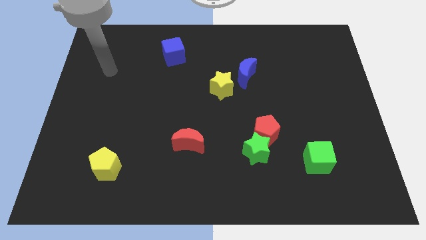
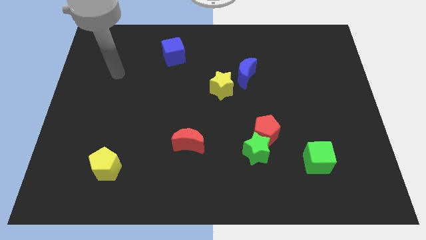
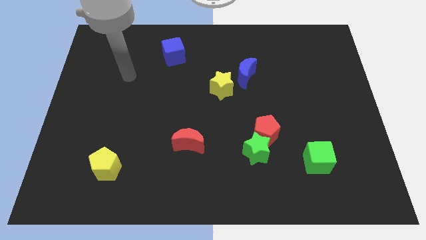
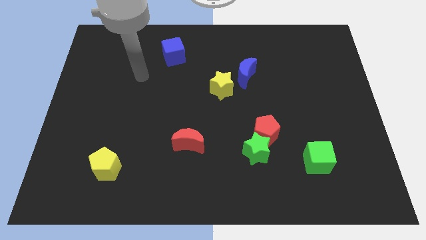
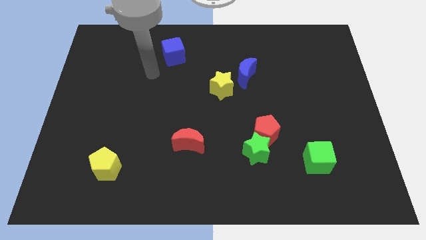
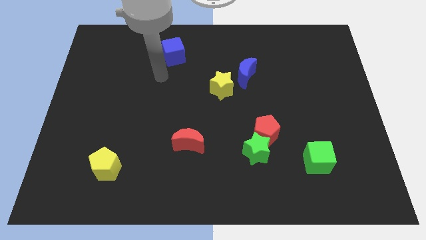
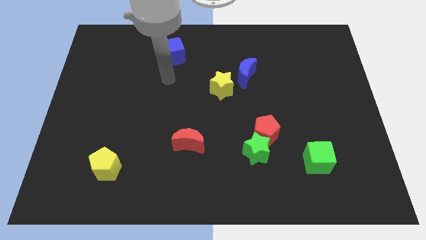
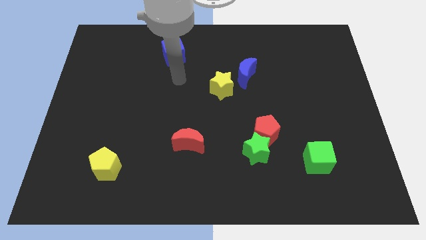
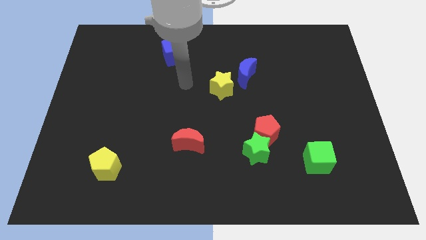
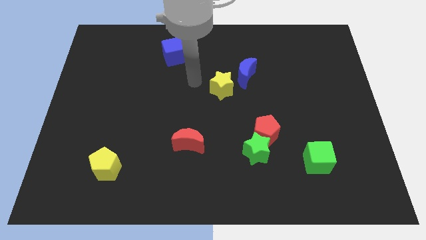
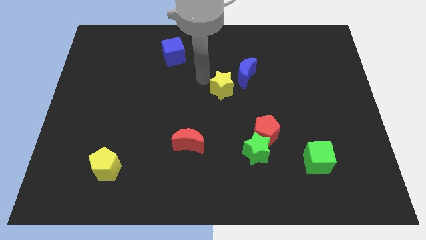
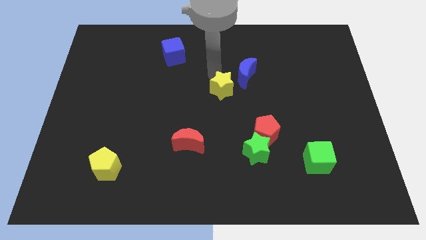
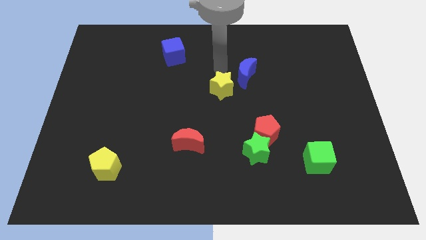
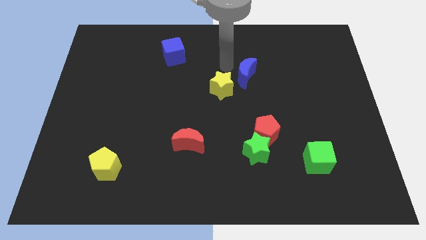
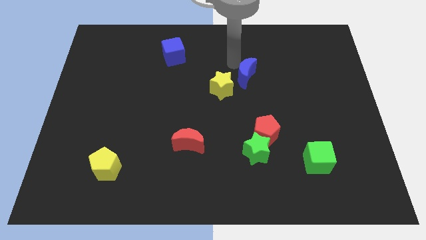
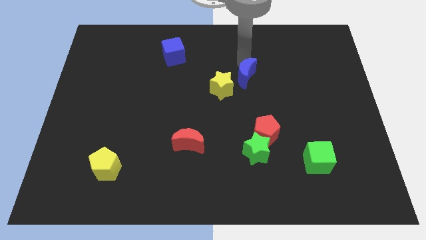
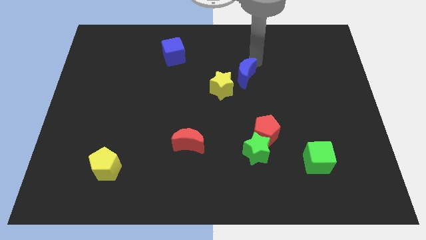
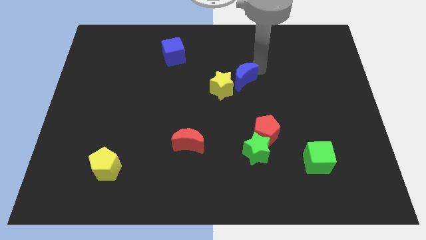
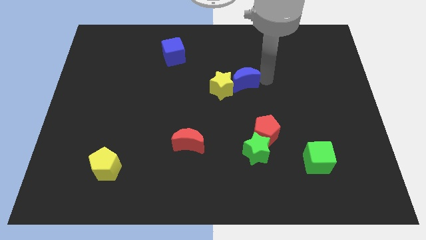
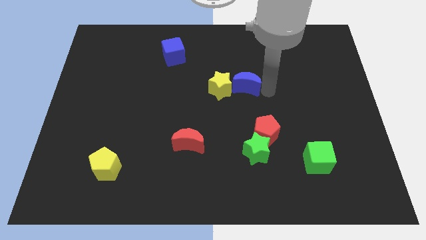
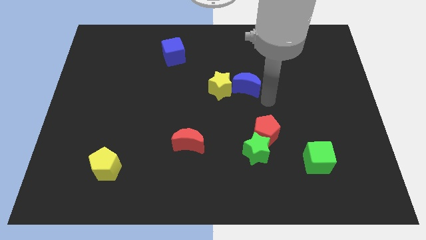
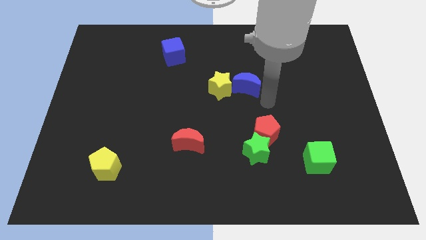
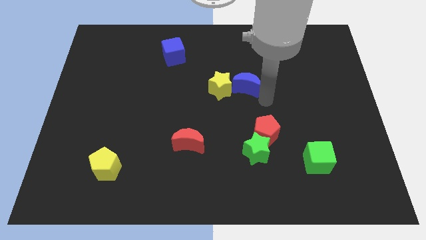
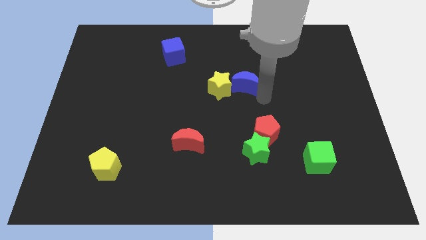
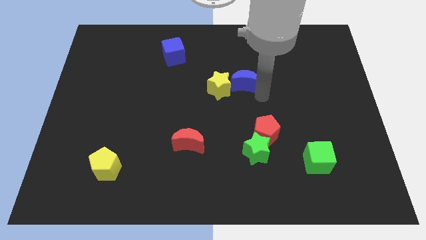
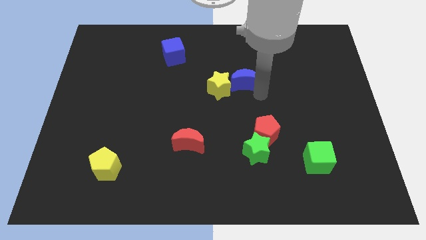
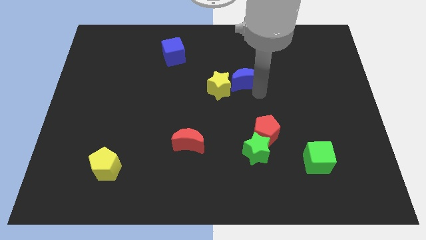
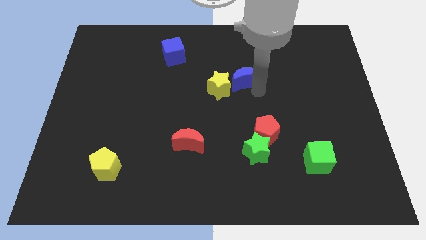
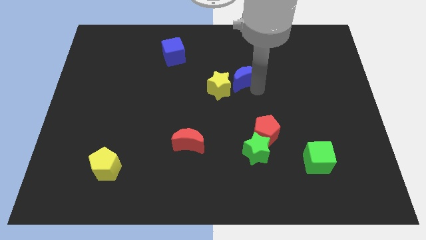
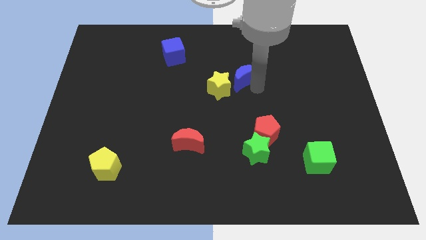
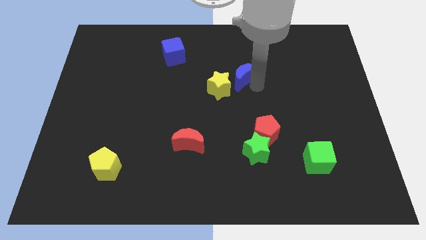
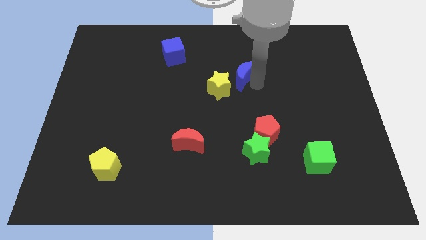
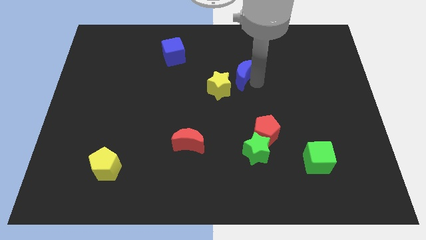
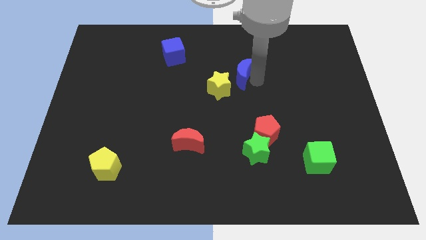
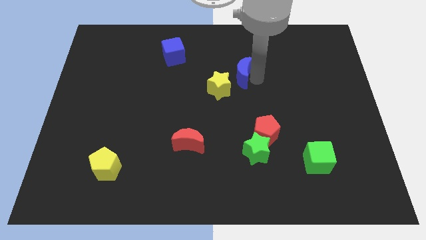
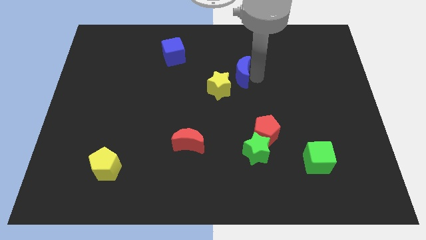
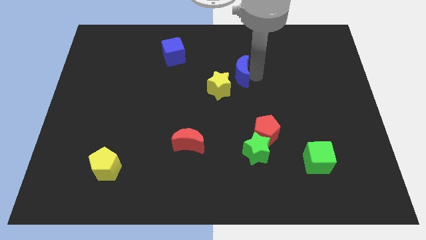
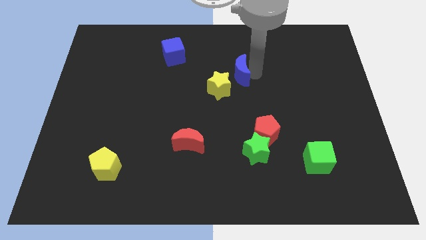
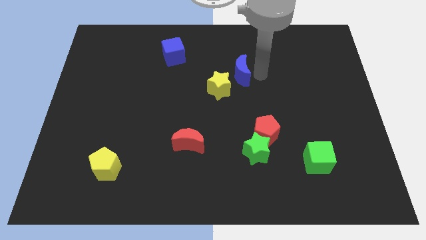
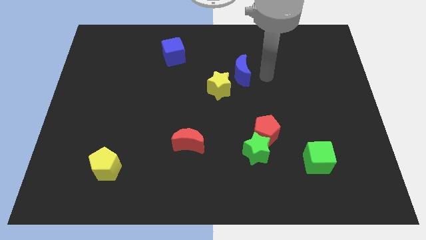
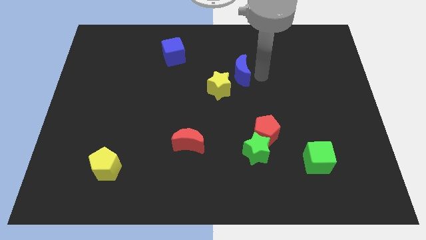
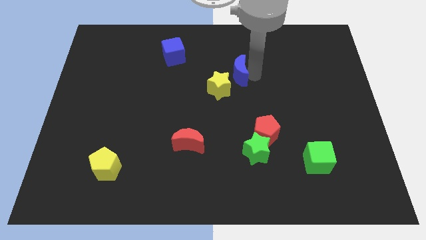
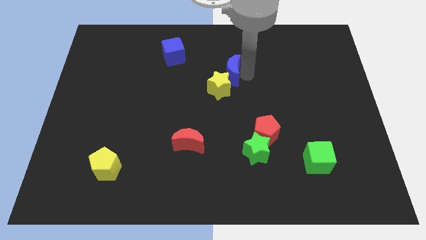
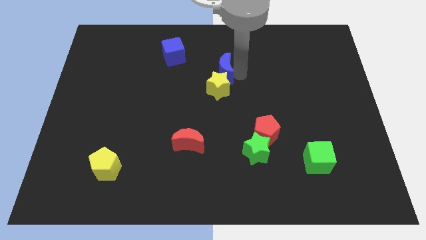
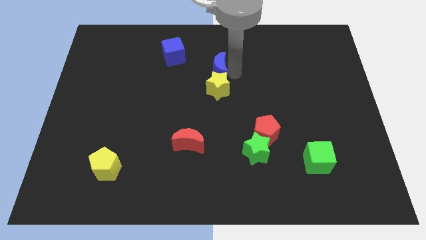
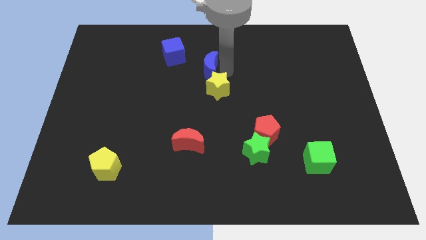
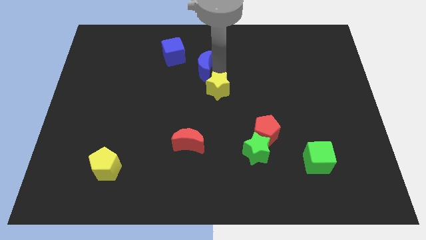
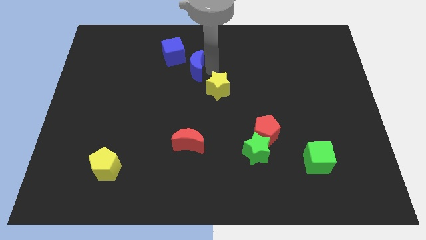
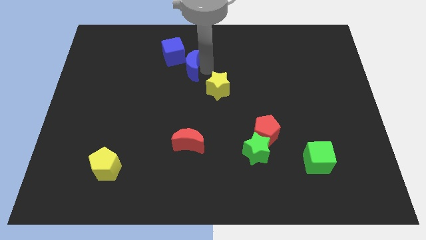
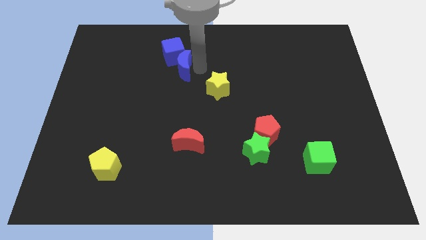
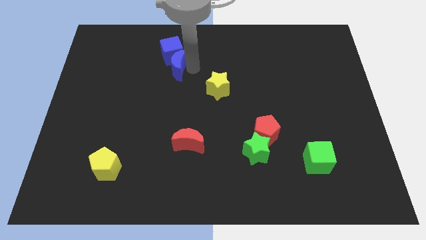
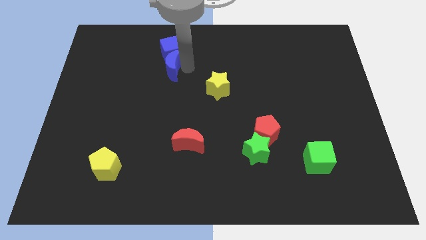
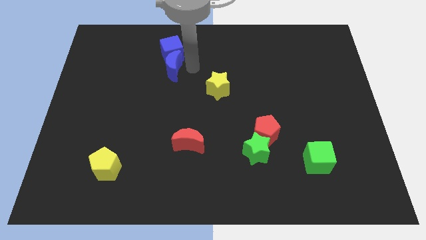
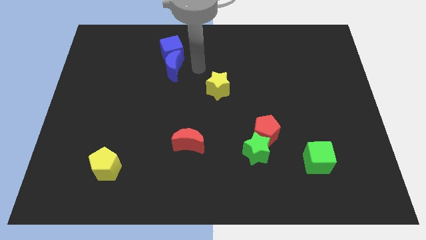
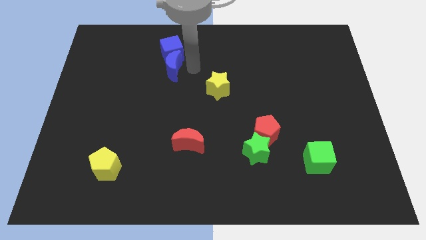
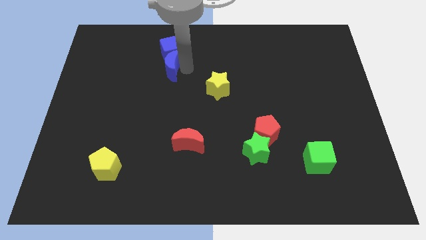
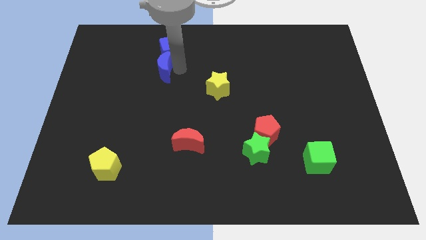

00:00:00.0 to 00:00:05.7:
move the blue moon to the left

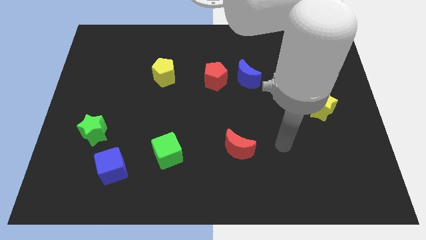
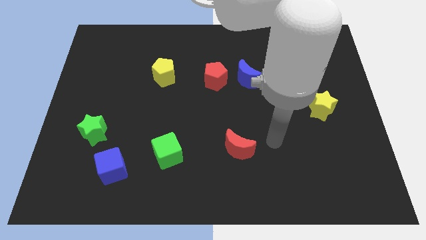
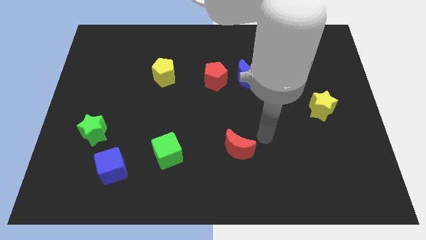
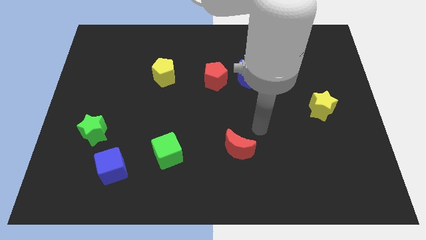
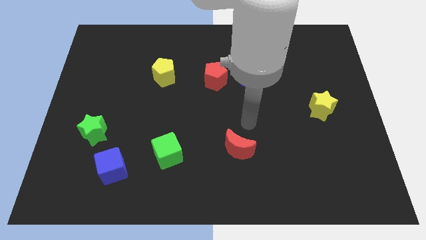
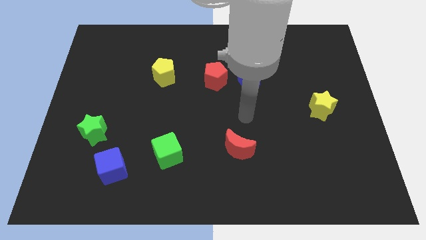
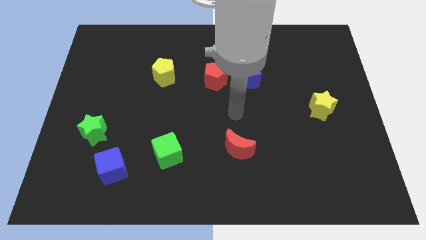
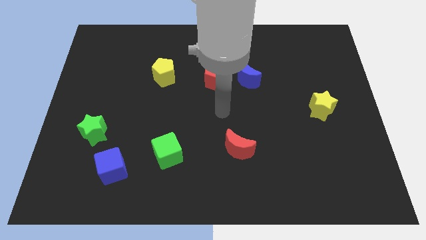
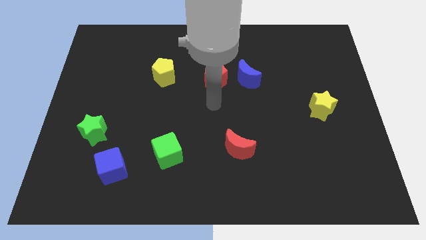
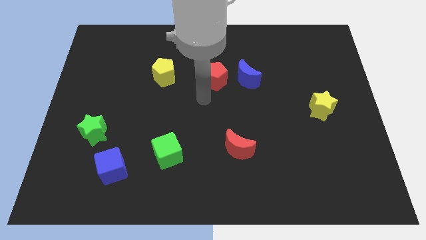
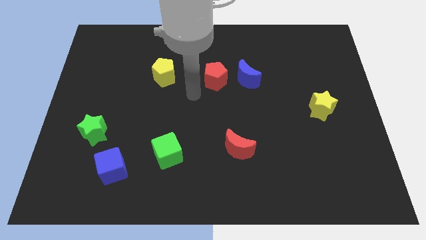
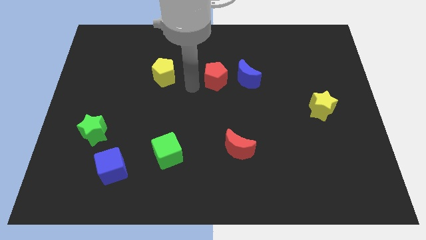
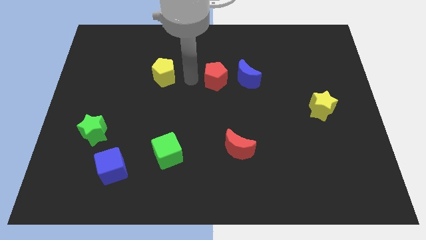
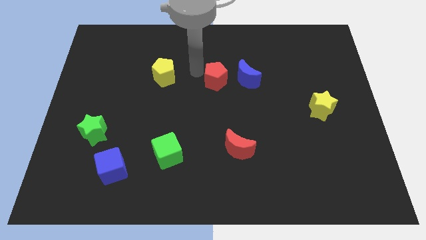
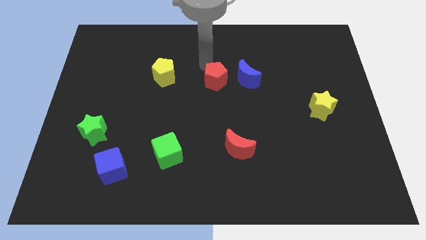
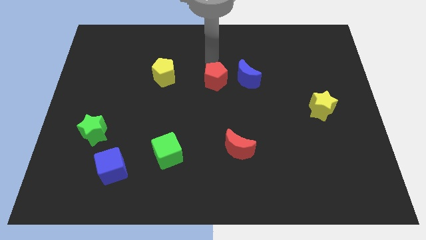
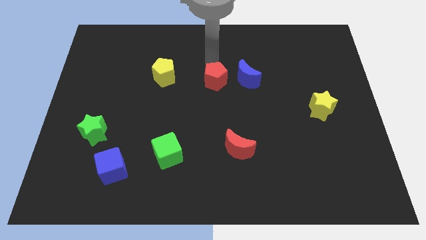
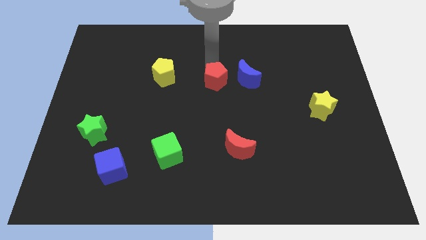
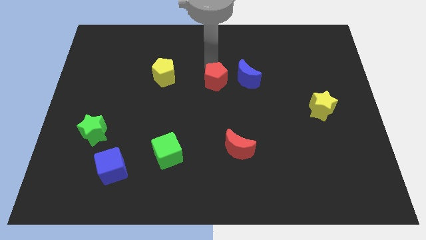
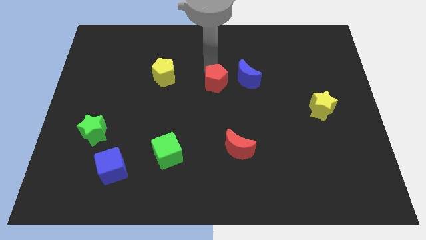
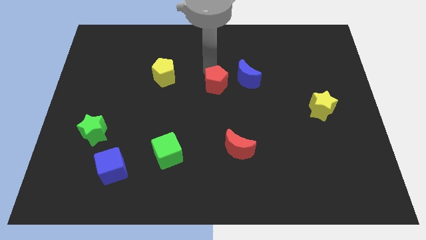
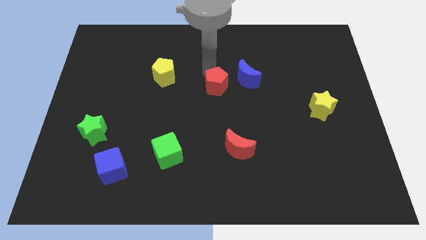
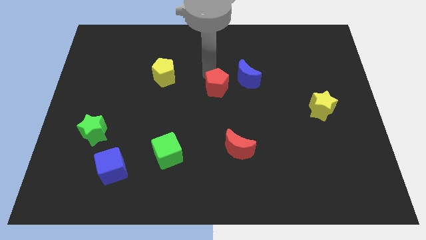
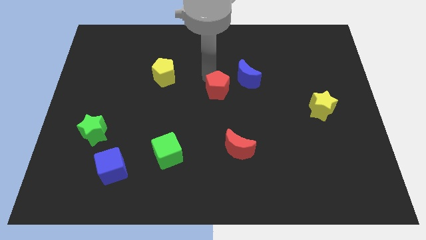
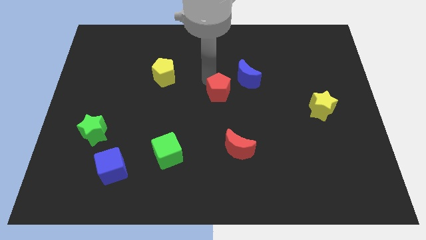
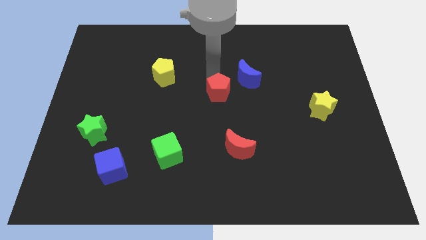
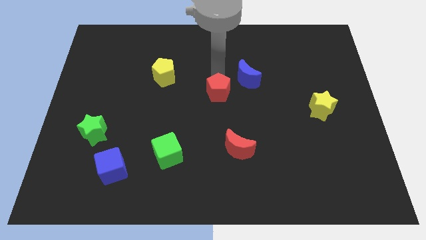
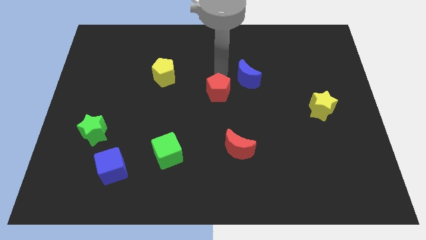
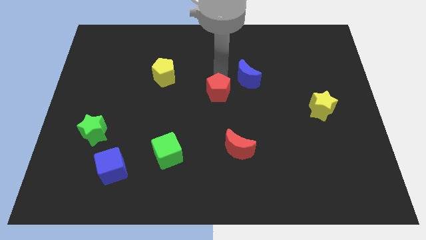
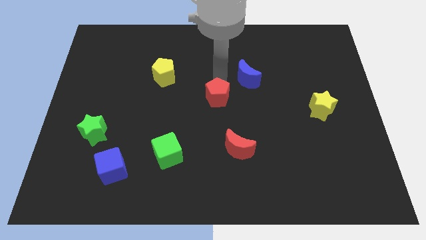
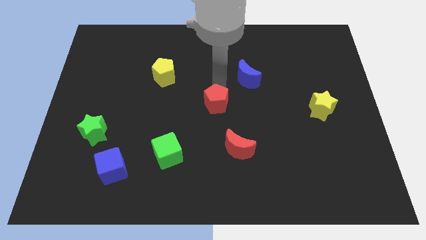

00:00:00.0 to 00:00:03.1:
move the red pentagon downwards a bit
